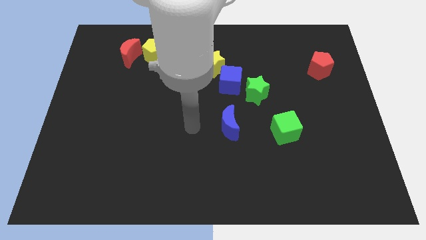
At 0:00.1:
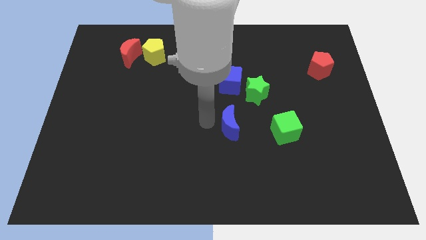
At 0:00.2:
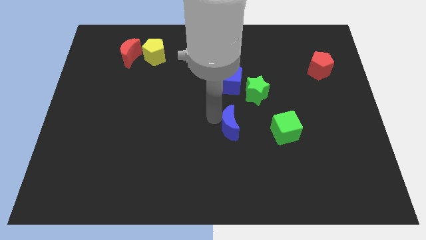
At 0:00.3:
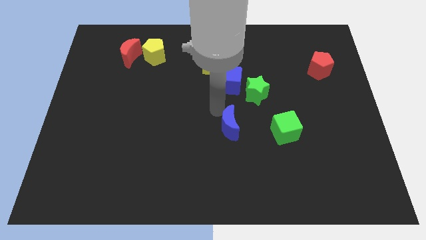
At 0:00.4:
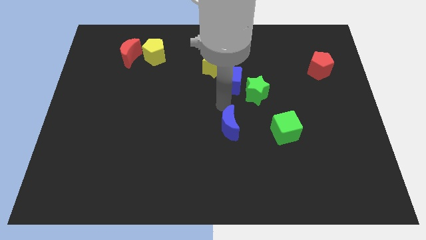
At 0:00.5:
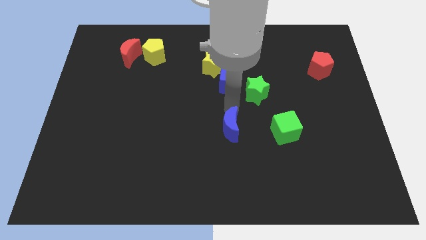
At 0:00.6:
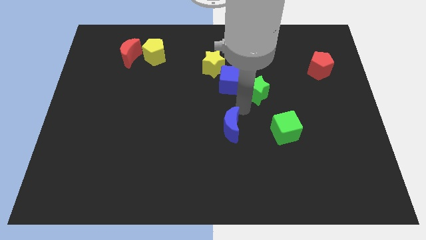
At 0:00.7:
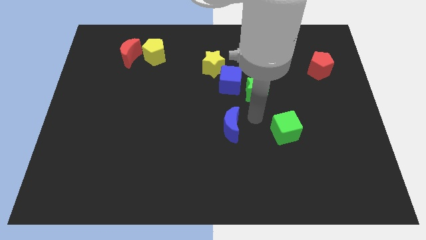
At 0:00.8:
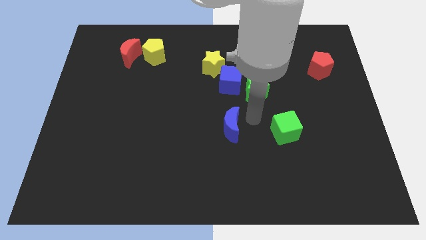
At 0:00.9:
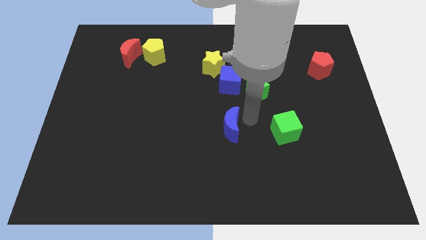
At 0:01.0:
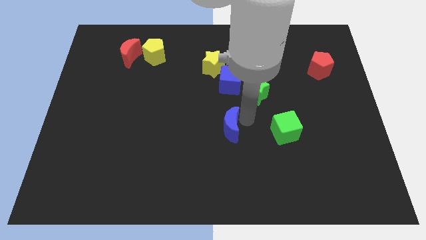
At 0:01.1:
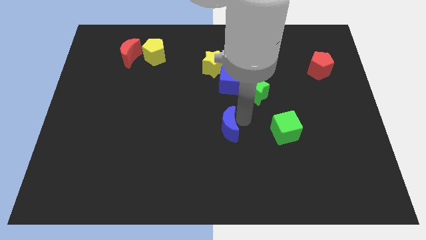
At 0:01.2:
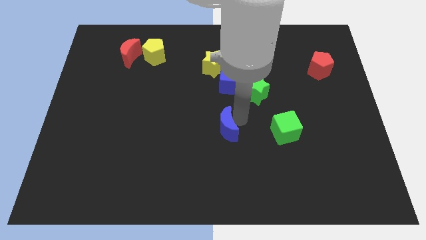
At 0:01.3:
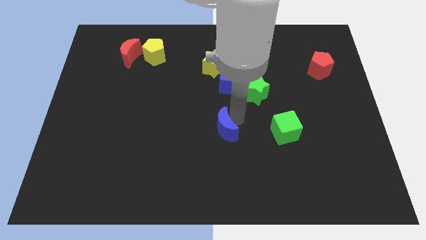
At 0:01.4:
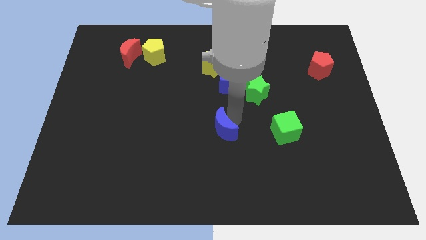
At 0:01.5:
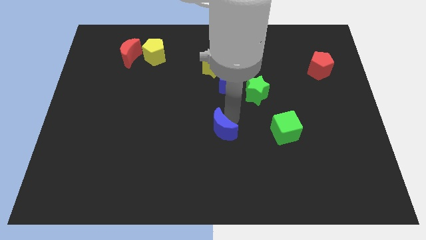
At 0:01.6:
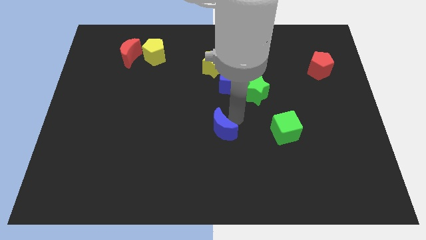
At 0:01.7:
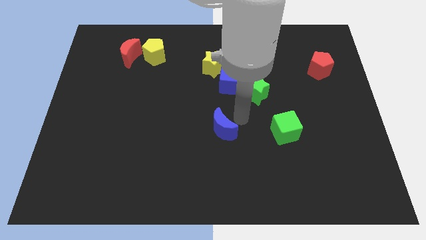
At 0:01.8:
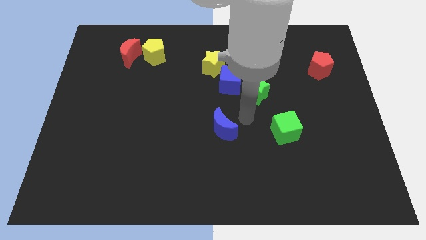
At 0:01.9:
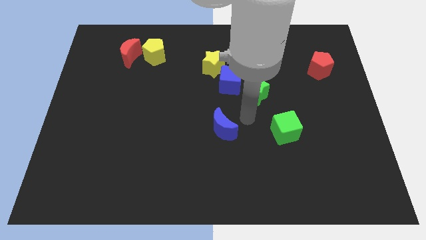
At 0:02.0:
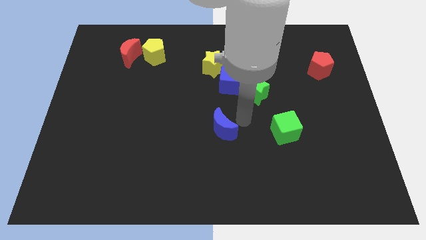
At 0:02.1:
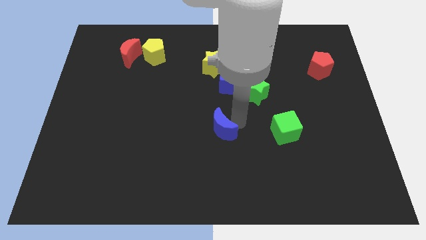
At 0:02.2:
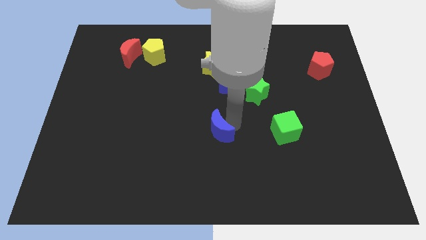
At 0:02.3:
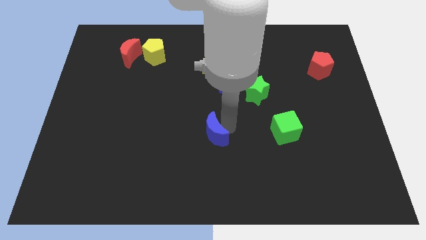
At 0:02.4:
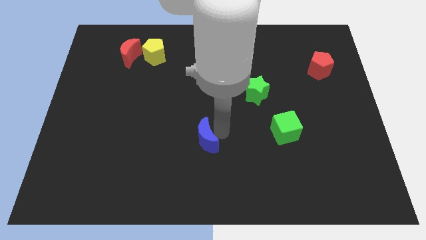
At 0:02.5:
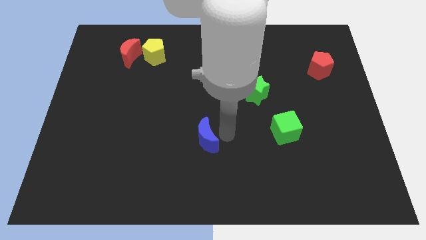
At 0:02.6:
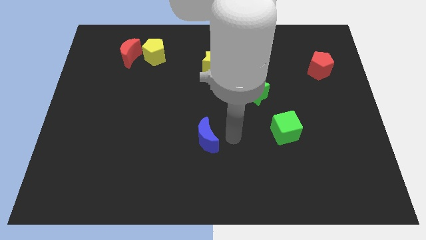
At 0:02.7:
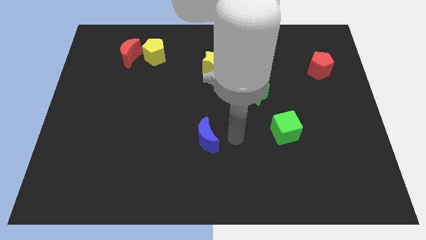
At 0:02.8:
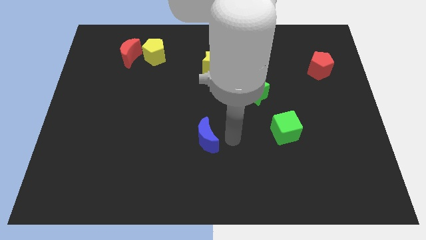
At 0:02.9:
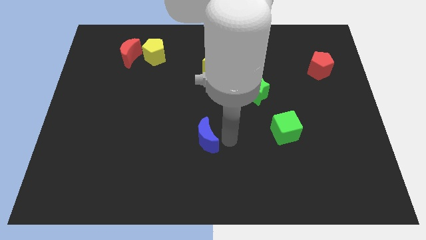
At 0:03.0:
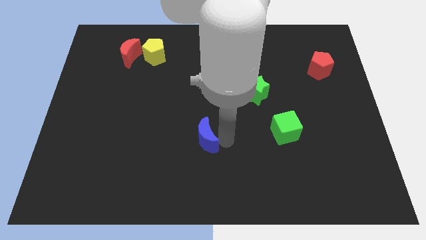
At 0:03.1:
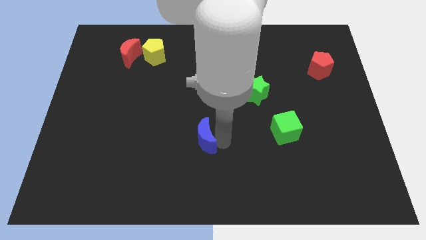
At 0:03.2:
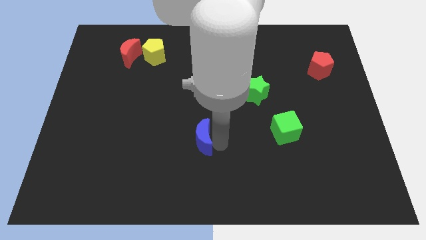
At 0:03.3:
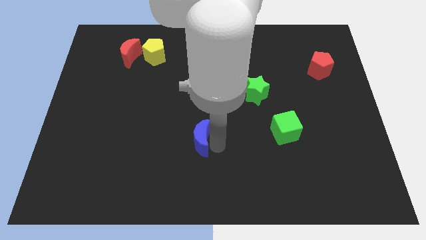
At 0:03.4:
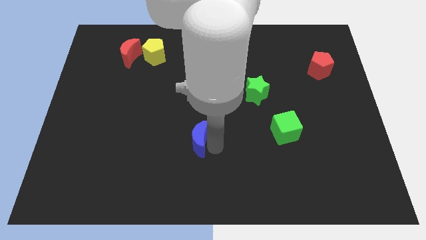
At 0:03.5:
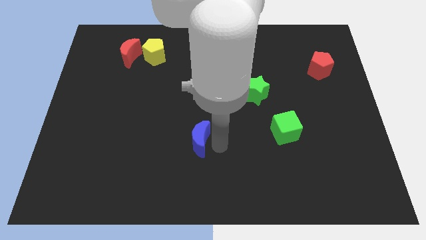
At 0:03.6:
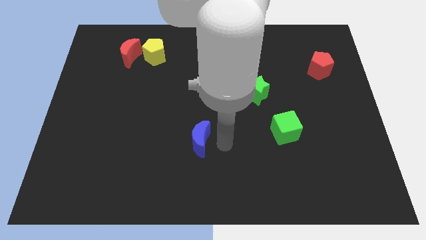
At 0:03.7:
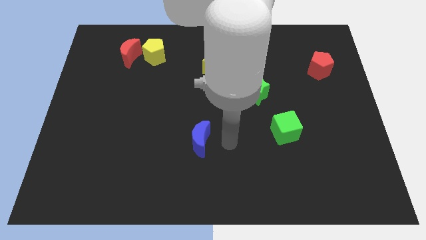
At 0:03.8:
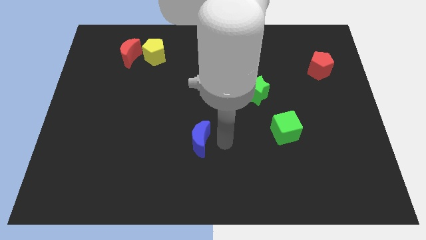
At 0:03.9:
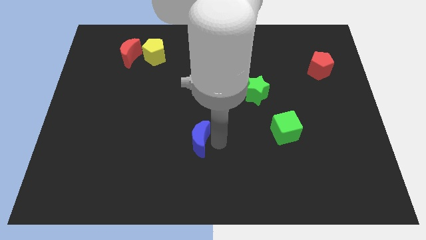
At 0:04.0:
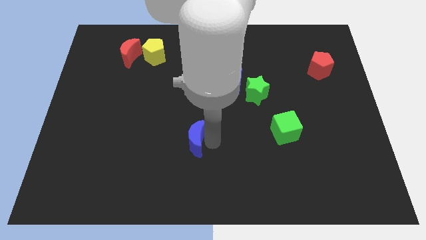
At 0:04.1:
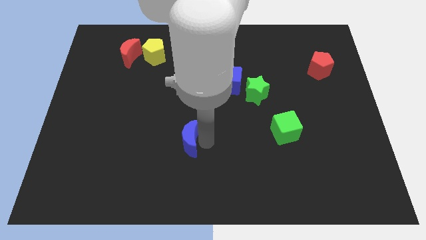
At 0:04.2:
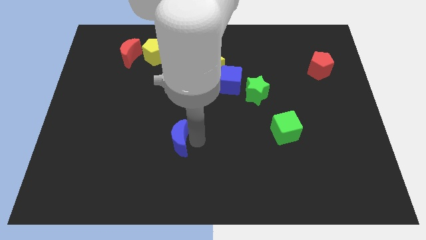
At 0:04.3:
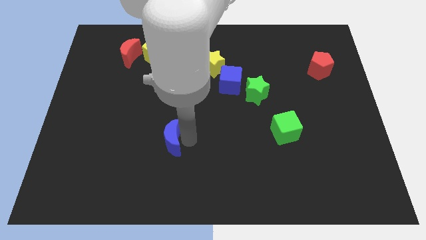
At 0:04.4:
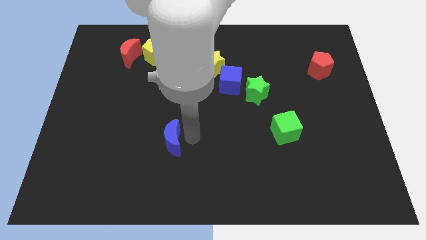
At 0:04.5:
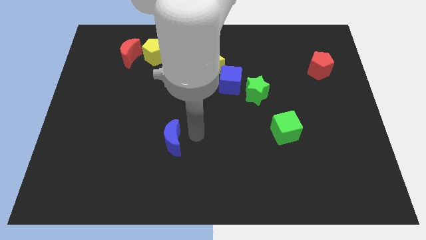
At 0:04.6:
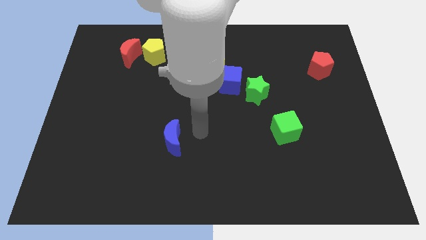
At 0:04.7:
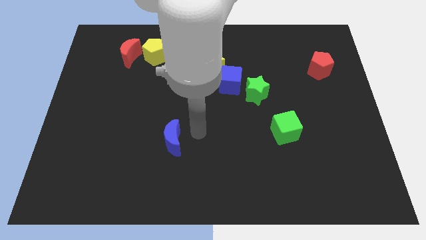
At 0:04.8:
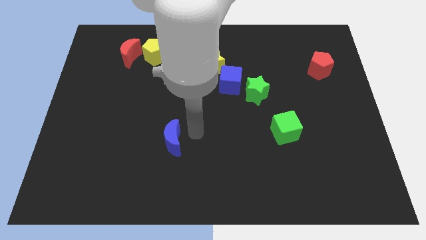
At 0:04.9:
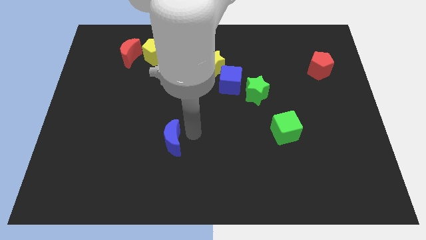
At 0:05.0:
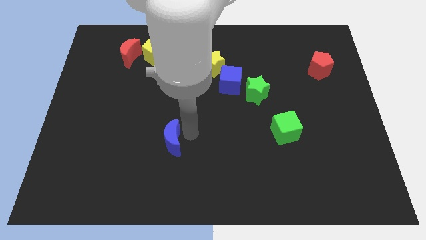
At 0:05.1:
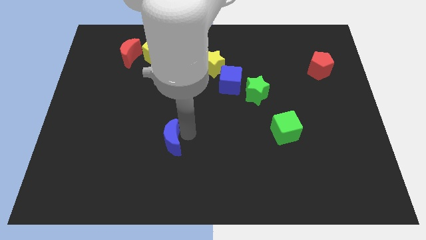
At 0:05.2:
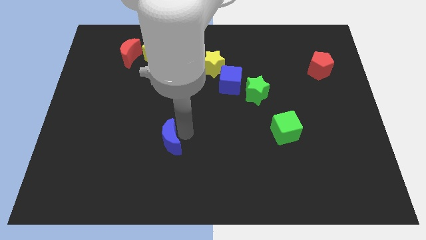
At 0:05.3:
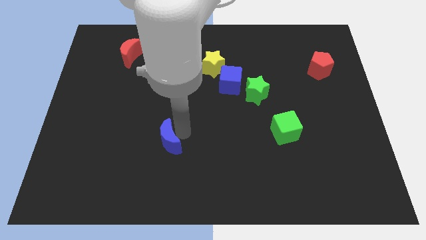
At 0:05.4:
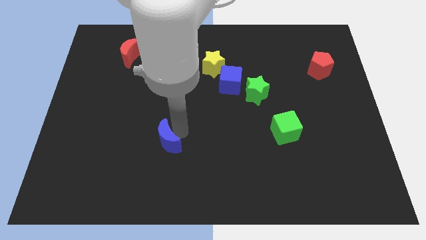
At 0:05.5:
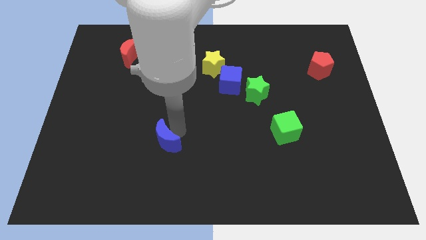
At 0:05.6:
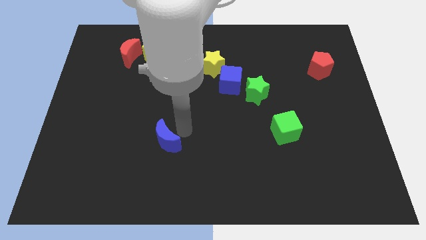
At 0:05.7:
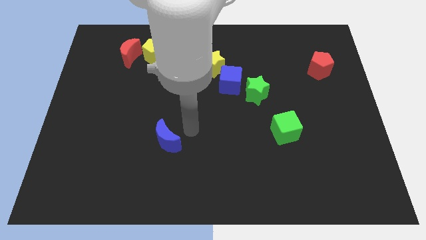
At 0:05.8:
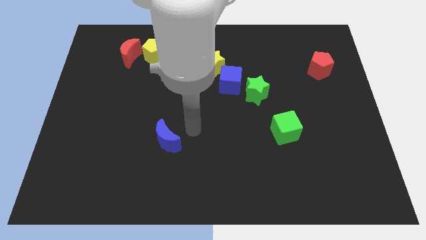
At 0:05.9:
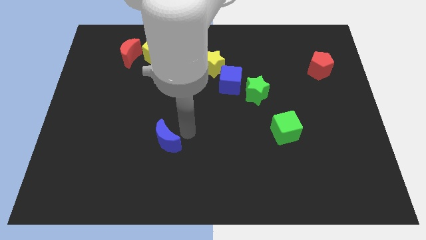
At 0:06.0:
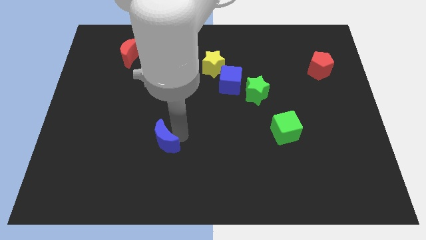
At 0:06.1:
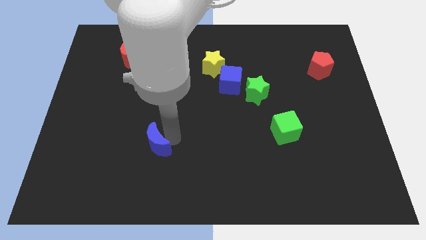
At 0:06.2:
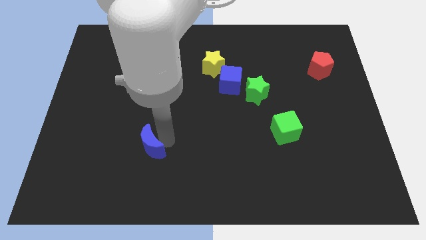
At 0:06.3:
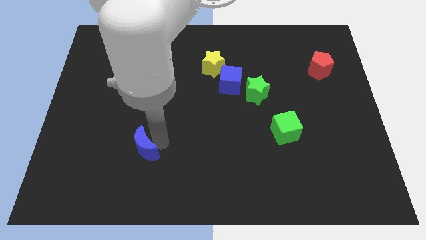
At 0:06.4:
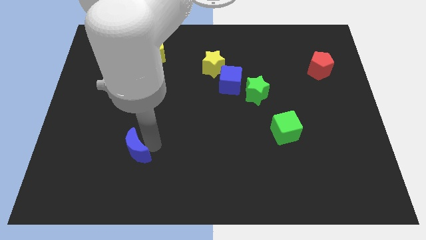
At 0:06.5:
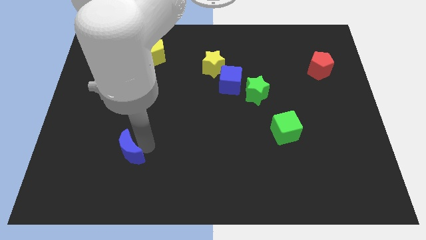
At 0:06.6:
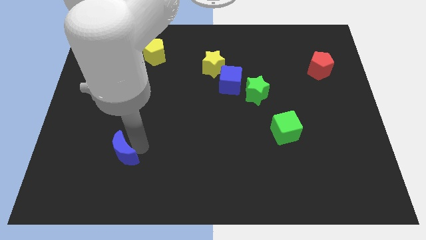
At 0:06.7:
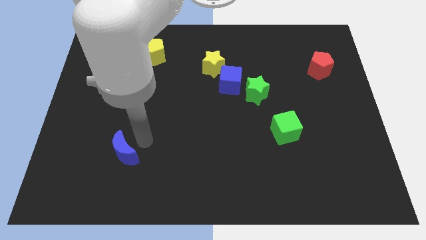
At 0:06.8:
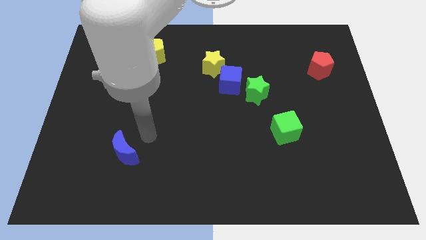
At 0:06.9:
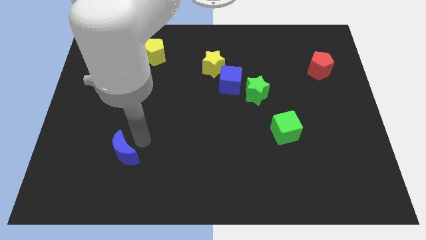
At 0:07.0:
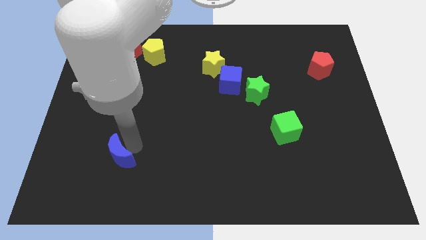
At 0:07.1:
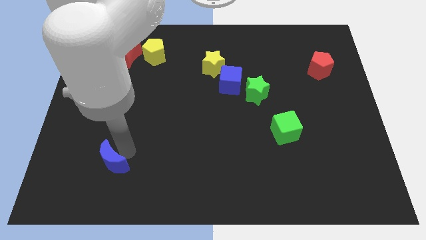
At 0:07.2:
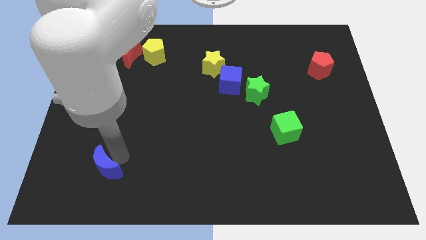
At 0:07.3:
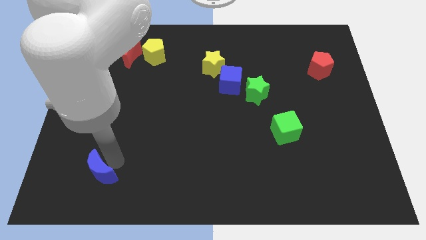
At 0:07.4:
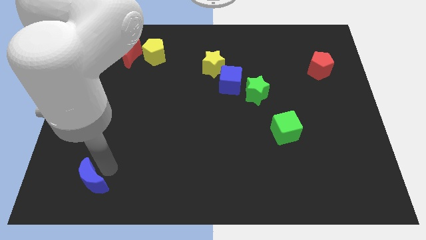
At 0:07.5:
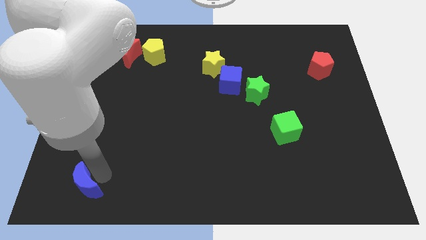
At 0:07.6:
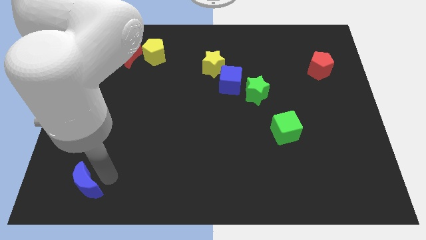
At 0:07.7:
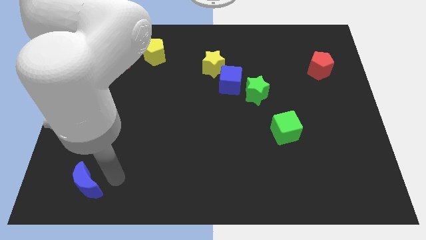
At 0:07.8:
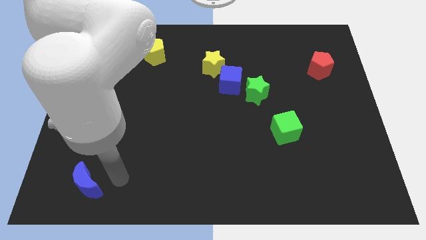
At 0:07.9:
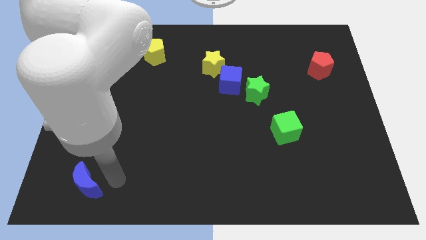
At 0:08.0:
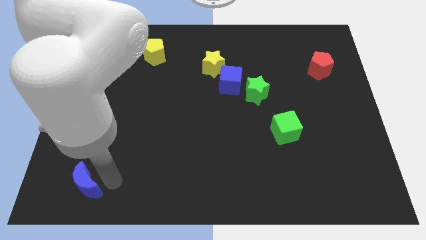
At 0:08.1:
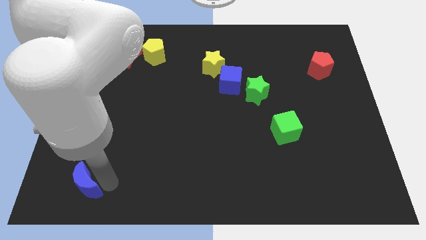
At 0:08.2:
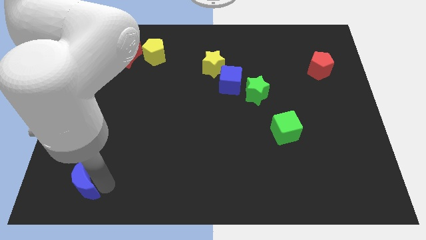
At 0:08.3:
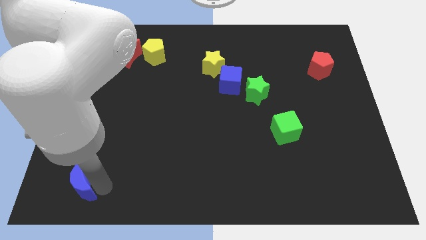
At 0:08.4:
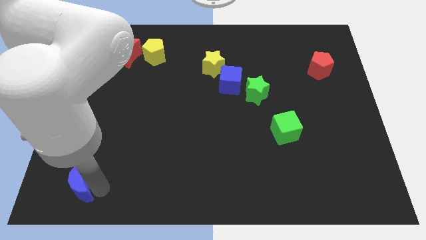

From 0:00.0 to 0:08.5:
put the blue moon to the bottom left corner
